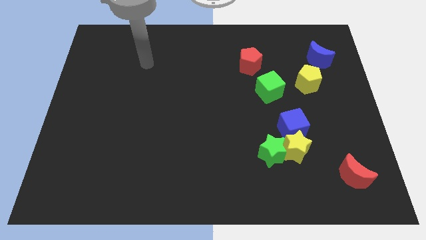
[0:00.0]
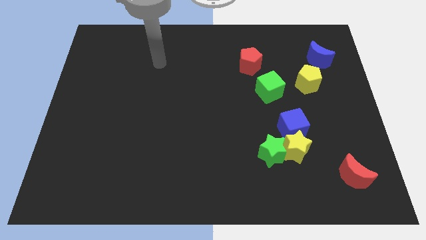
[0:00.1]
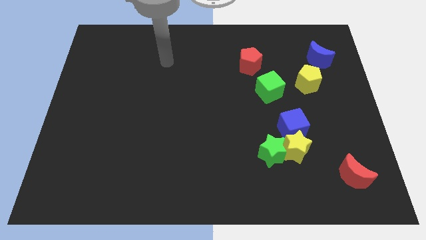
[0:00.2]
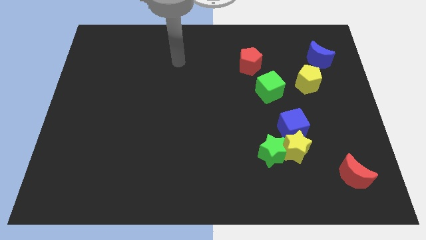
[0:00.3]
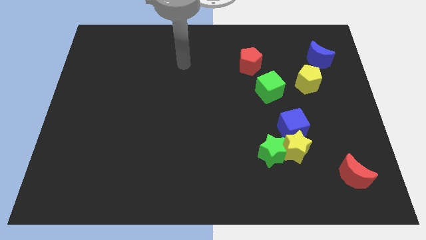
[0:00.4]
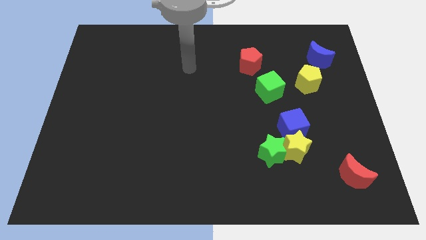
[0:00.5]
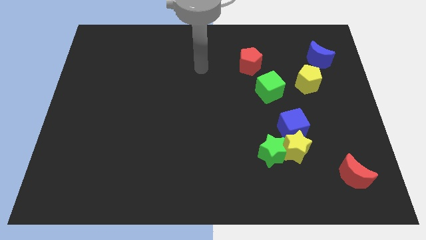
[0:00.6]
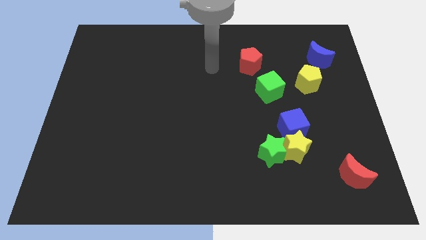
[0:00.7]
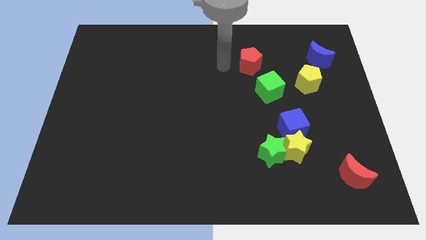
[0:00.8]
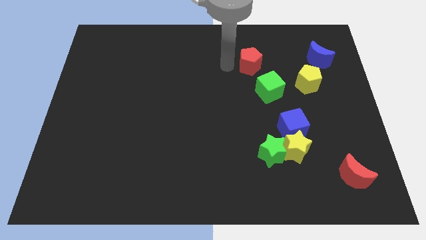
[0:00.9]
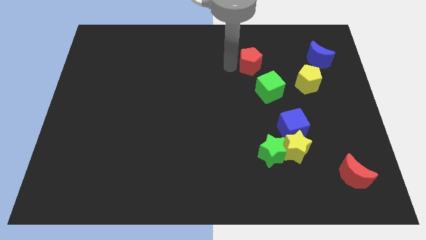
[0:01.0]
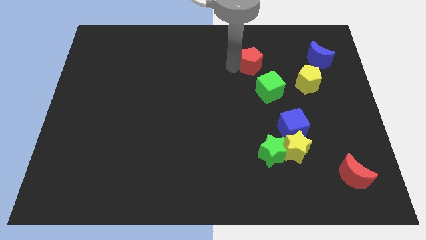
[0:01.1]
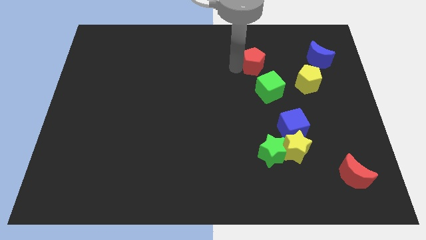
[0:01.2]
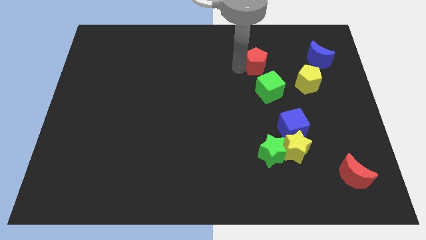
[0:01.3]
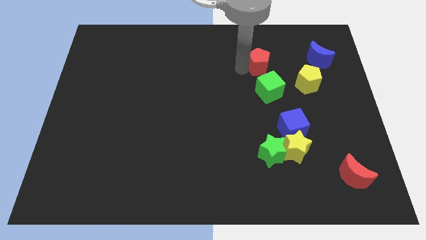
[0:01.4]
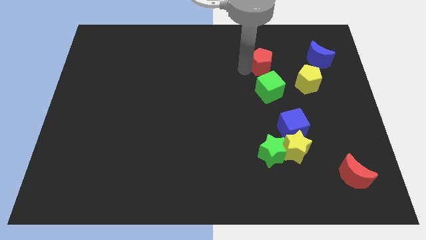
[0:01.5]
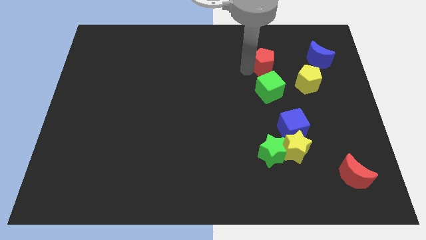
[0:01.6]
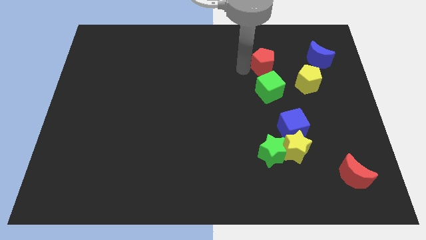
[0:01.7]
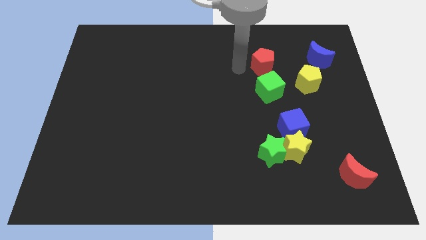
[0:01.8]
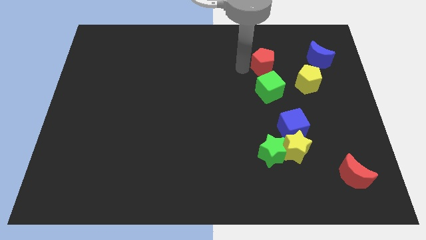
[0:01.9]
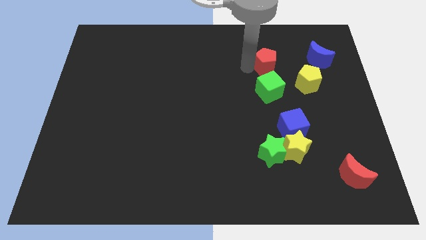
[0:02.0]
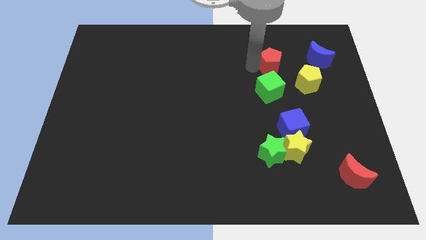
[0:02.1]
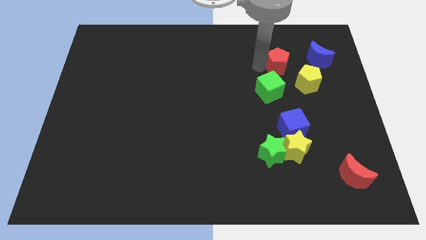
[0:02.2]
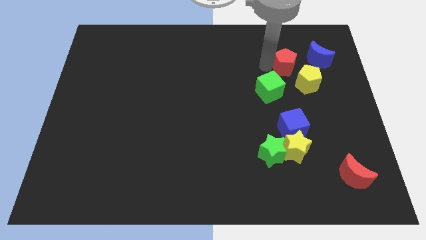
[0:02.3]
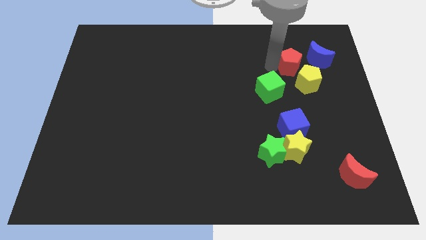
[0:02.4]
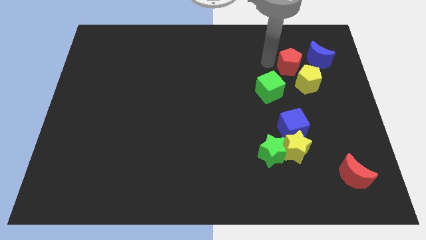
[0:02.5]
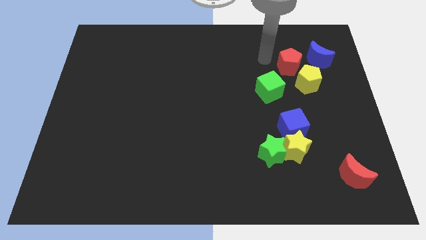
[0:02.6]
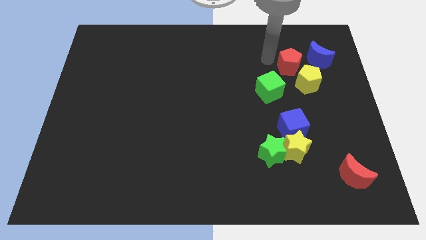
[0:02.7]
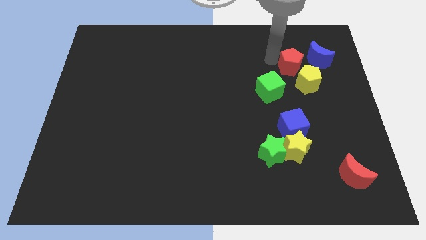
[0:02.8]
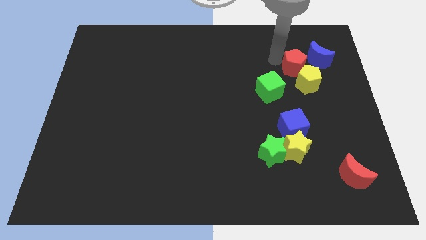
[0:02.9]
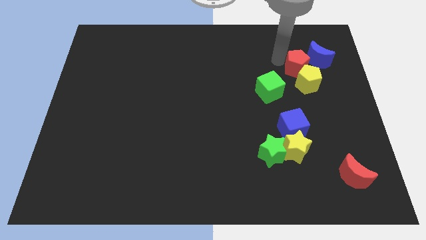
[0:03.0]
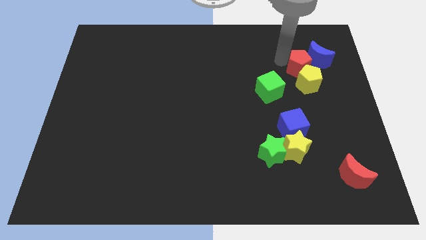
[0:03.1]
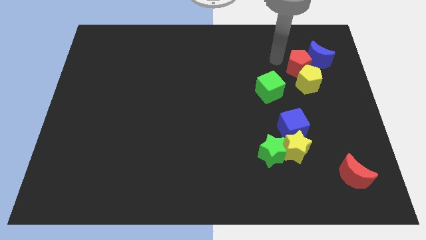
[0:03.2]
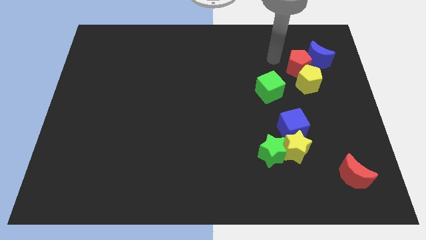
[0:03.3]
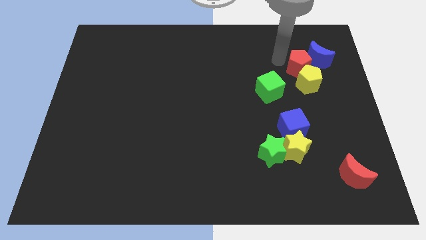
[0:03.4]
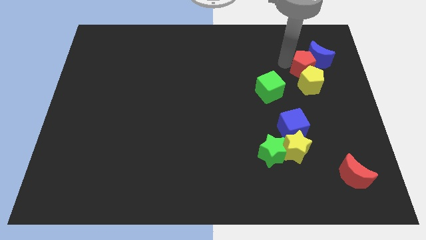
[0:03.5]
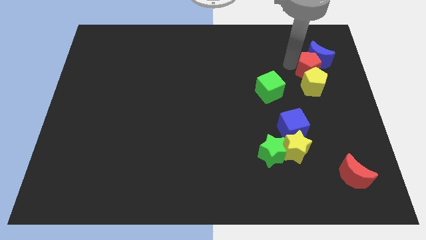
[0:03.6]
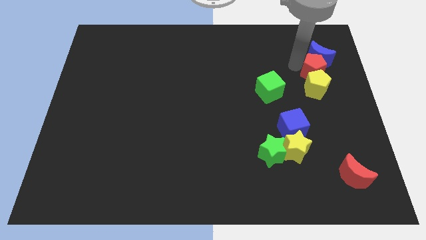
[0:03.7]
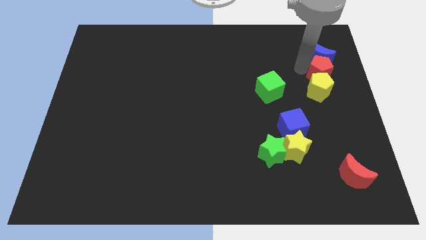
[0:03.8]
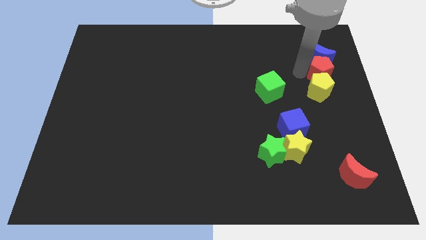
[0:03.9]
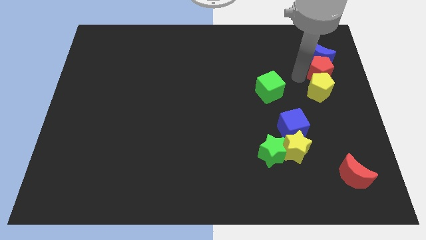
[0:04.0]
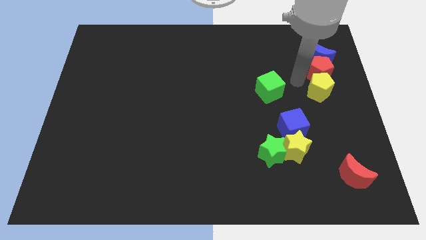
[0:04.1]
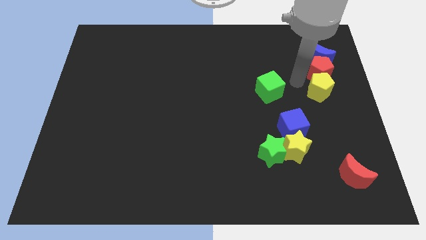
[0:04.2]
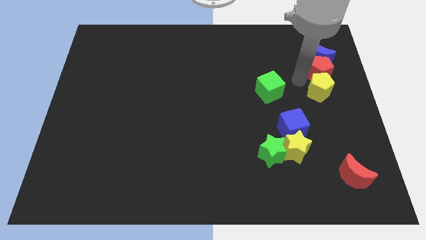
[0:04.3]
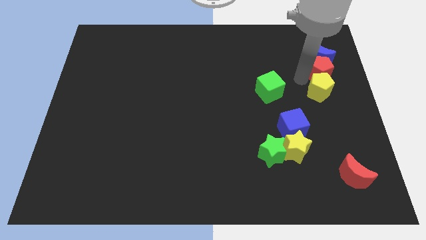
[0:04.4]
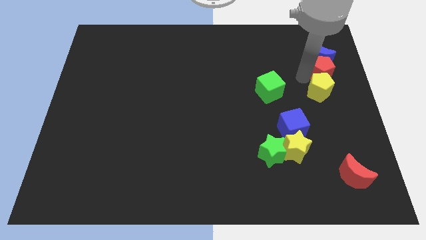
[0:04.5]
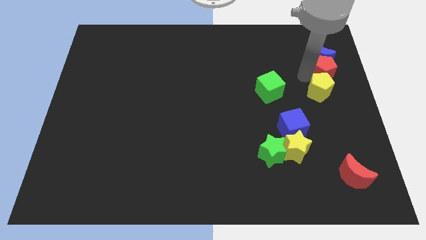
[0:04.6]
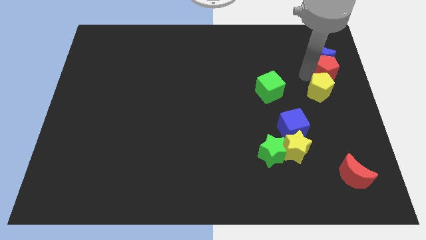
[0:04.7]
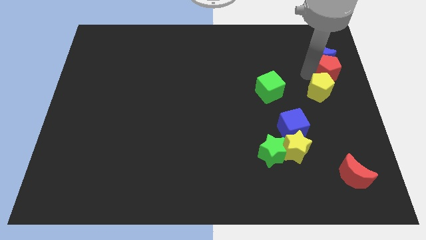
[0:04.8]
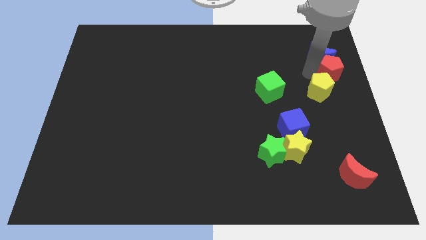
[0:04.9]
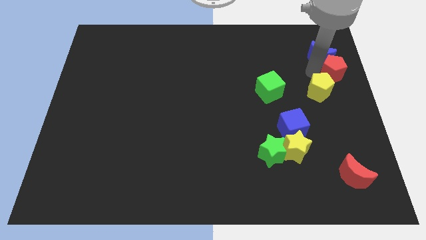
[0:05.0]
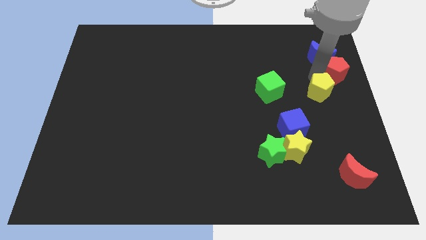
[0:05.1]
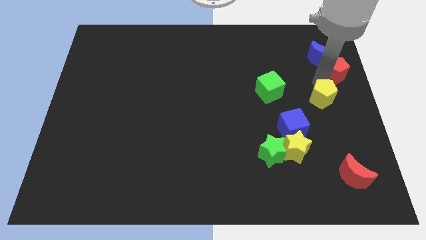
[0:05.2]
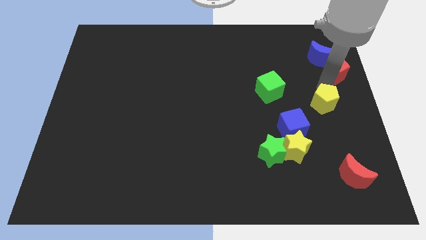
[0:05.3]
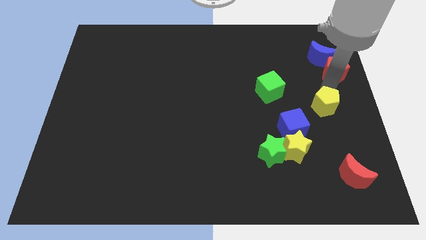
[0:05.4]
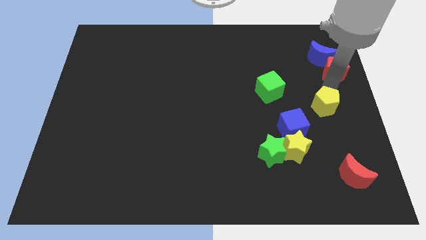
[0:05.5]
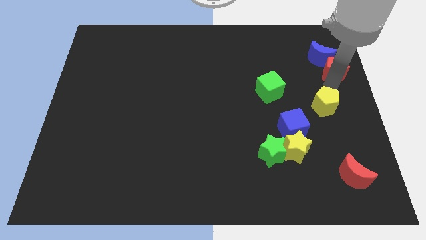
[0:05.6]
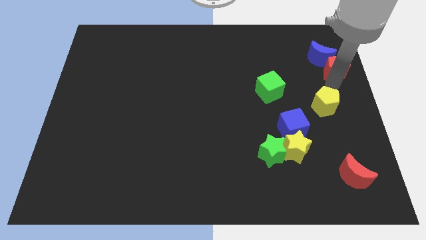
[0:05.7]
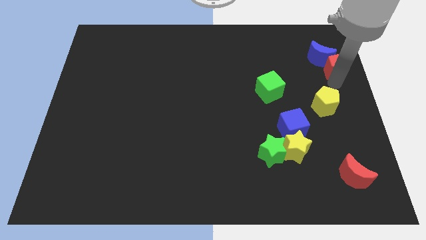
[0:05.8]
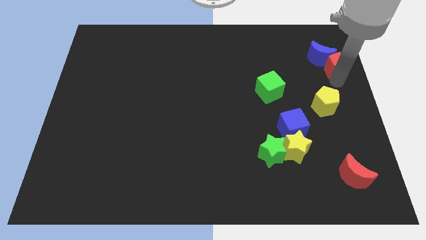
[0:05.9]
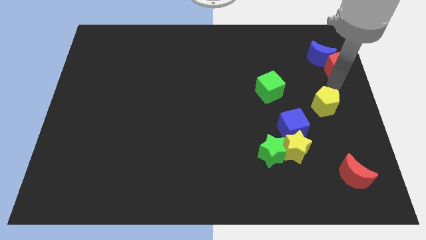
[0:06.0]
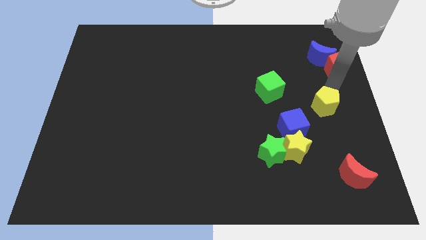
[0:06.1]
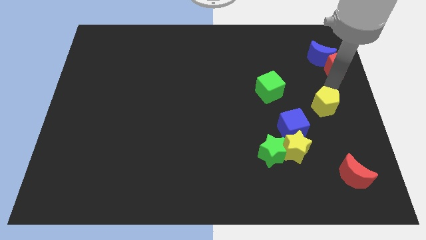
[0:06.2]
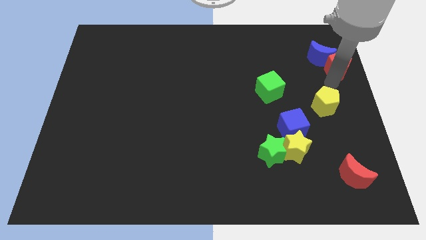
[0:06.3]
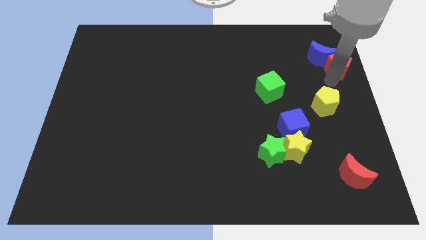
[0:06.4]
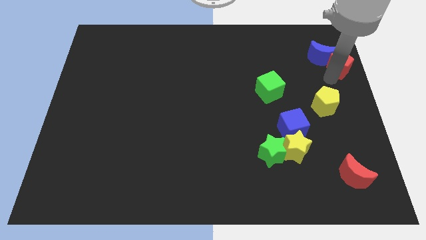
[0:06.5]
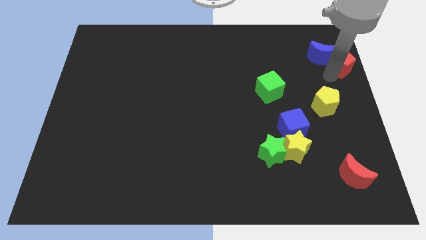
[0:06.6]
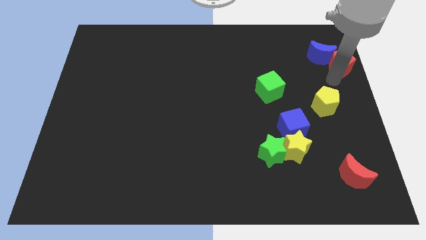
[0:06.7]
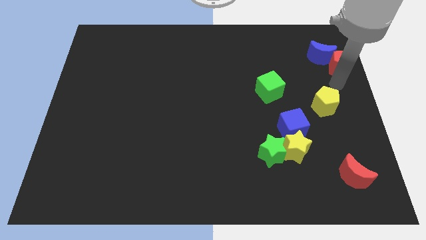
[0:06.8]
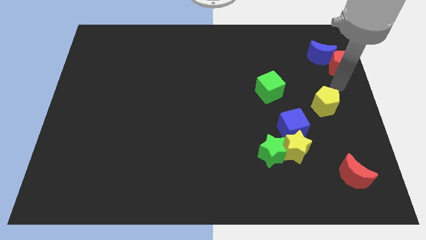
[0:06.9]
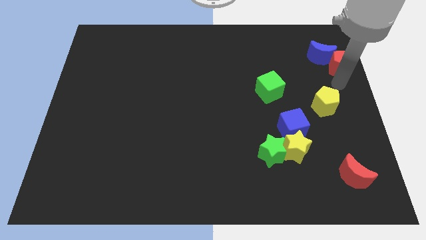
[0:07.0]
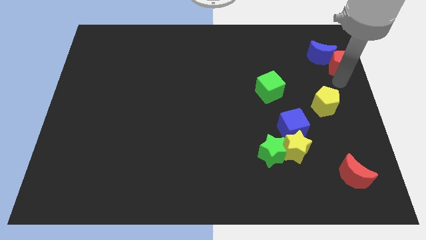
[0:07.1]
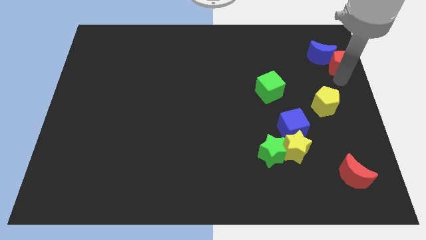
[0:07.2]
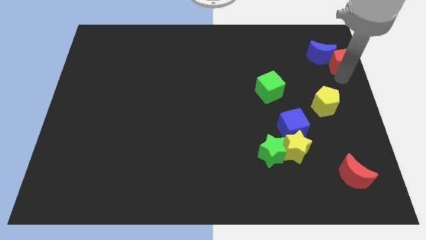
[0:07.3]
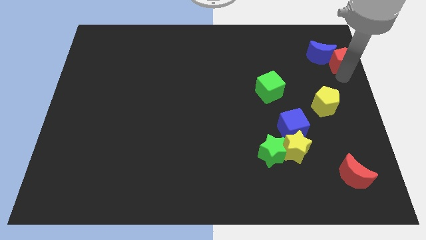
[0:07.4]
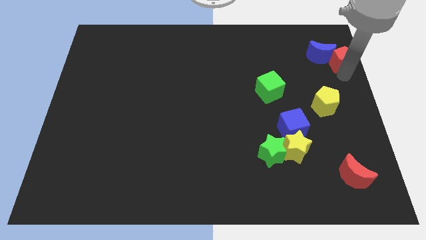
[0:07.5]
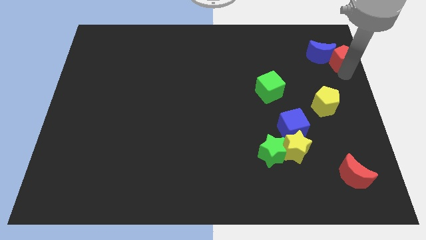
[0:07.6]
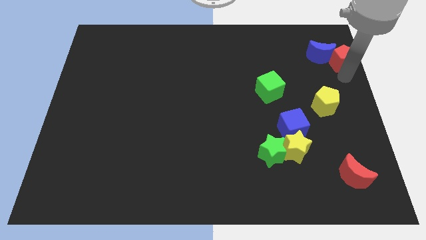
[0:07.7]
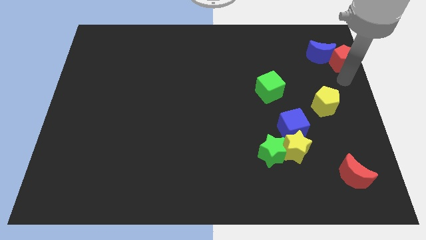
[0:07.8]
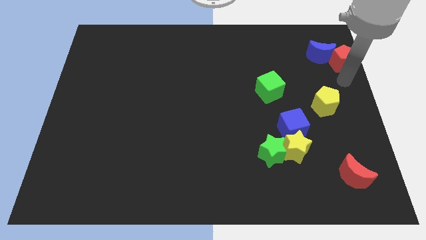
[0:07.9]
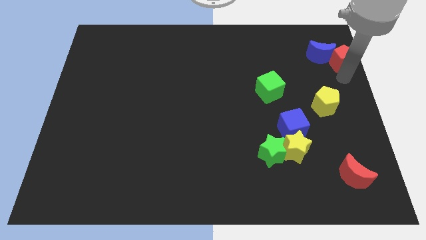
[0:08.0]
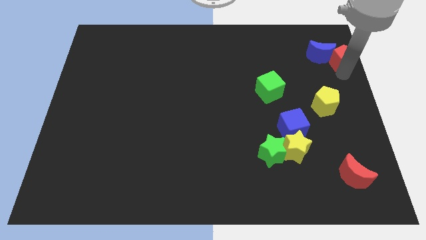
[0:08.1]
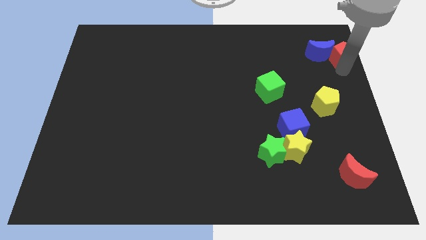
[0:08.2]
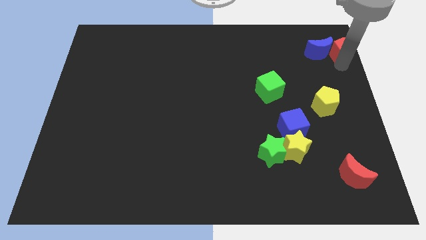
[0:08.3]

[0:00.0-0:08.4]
push the red pentagon to the top right
